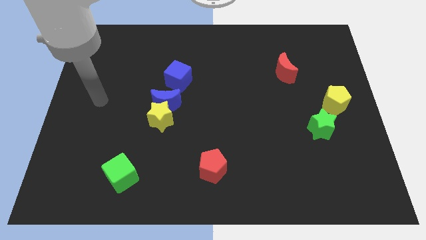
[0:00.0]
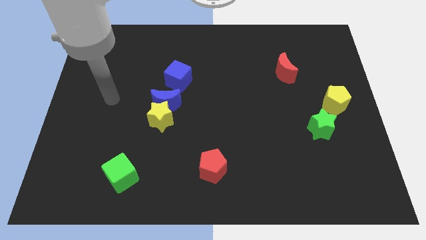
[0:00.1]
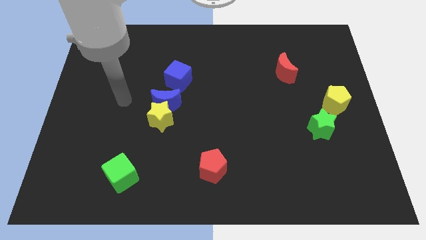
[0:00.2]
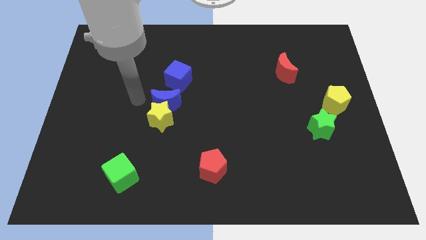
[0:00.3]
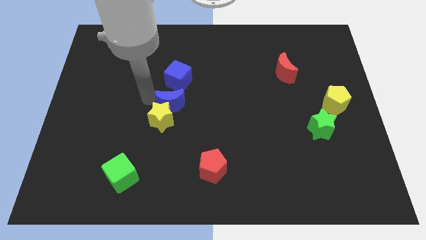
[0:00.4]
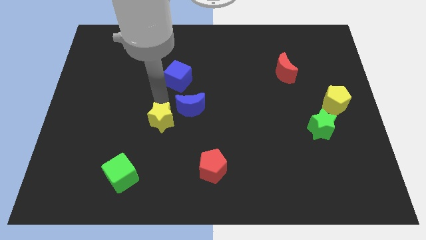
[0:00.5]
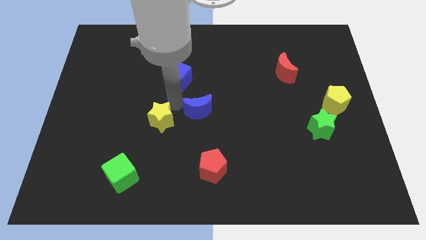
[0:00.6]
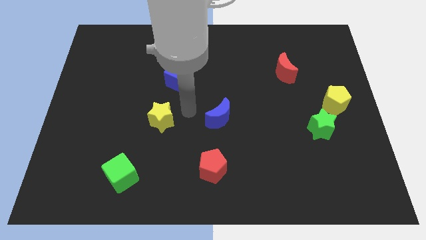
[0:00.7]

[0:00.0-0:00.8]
move the yellow star away from the blue moon

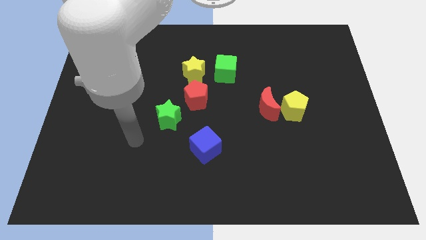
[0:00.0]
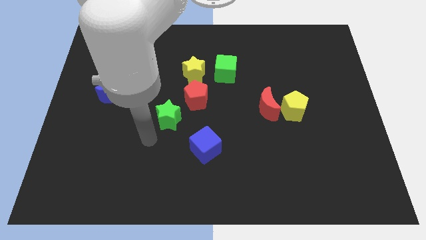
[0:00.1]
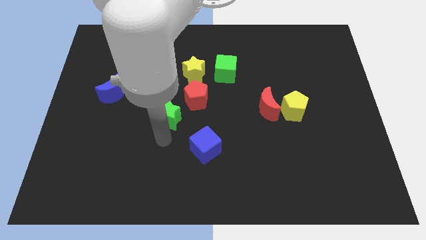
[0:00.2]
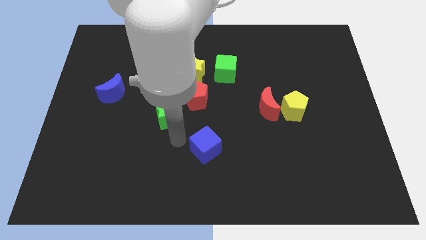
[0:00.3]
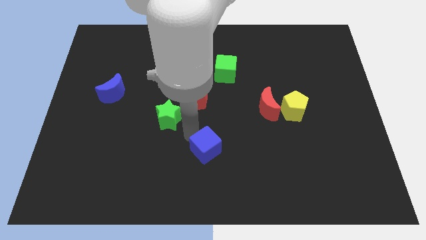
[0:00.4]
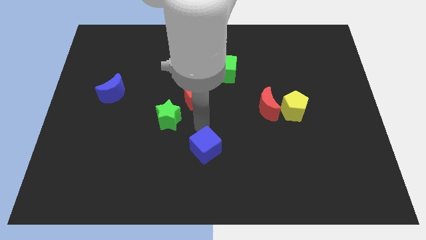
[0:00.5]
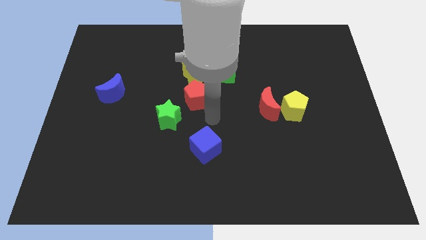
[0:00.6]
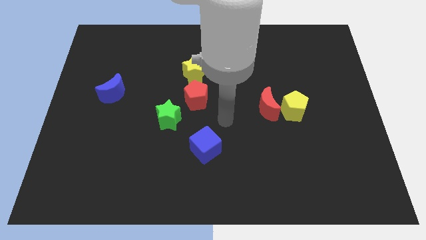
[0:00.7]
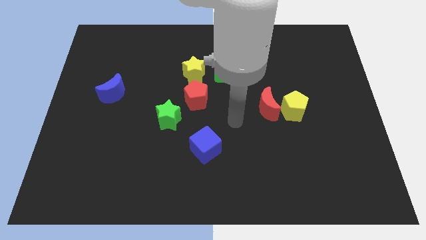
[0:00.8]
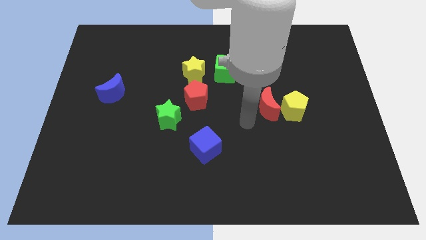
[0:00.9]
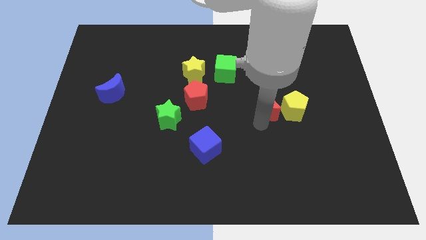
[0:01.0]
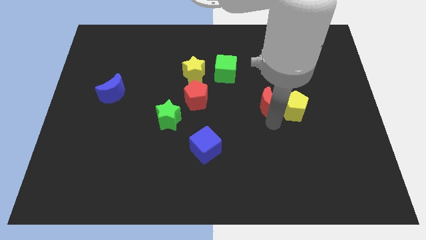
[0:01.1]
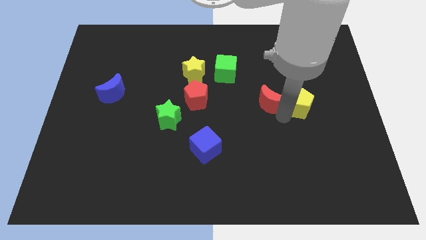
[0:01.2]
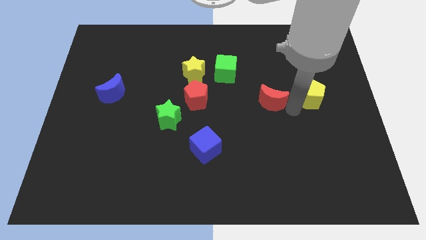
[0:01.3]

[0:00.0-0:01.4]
pull the red moon apart from the yellow pentagon

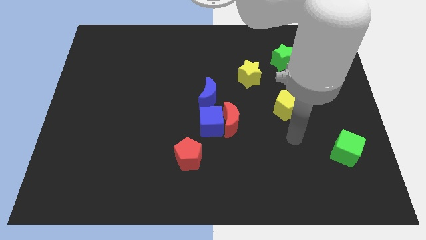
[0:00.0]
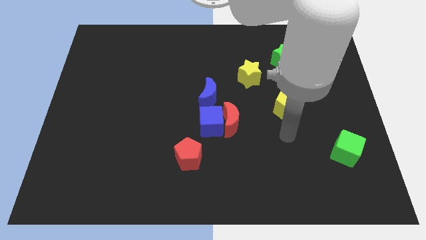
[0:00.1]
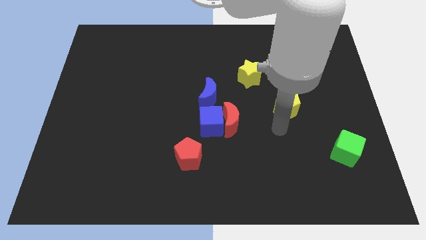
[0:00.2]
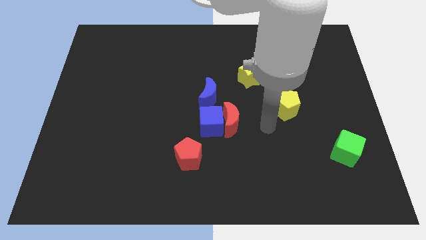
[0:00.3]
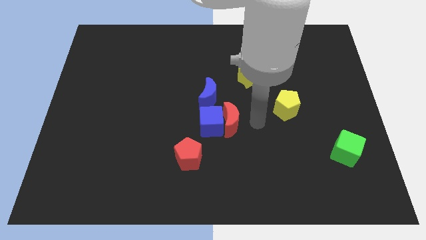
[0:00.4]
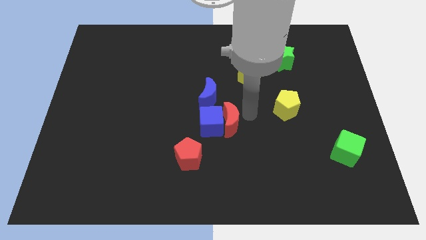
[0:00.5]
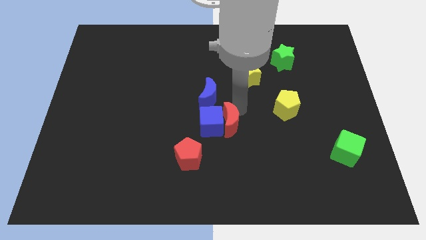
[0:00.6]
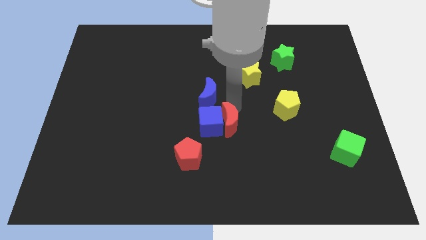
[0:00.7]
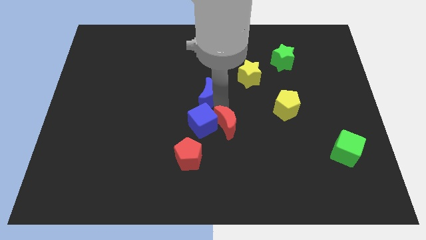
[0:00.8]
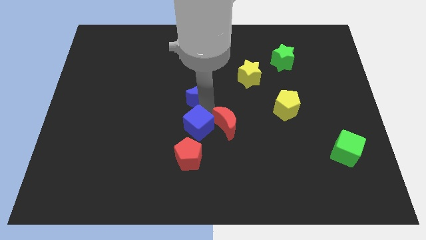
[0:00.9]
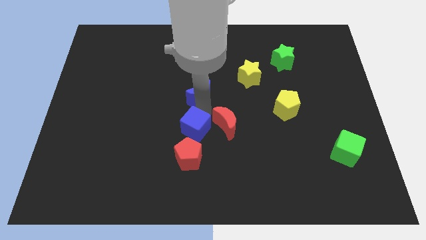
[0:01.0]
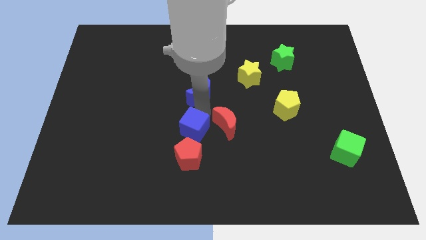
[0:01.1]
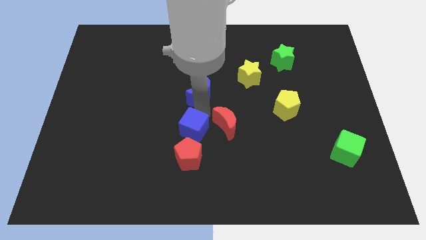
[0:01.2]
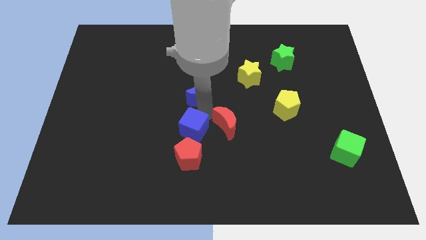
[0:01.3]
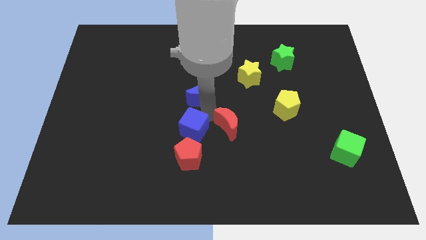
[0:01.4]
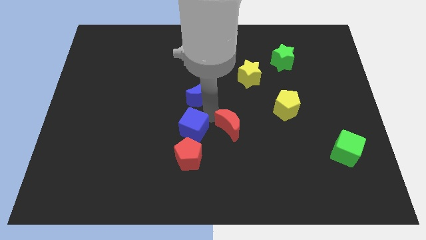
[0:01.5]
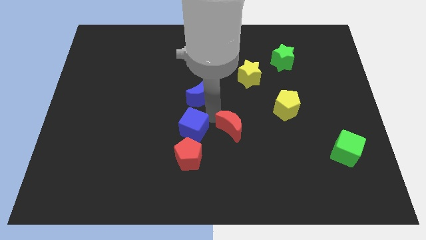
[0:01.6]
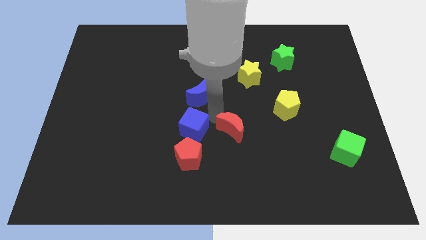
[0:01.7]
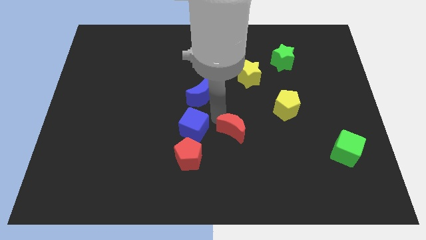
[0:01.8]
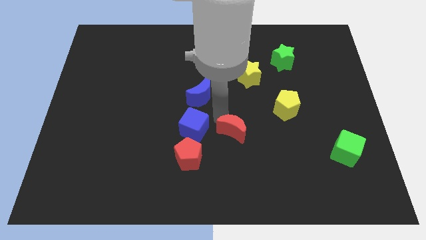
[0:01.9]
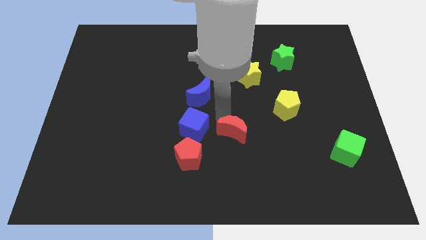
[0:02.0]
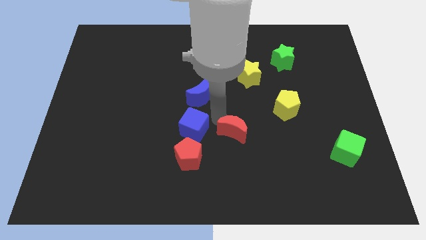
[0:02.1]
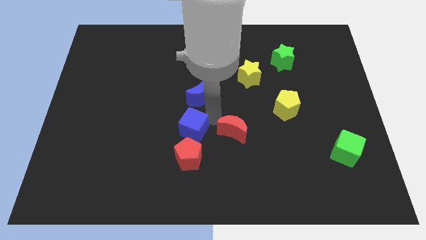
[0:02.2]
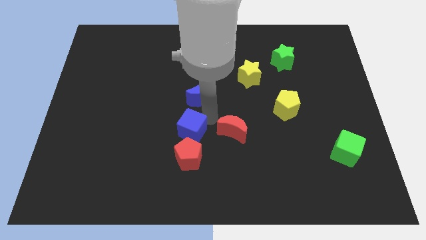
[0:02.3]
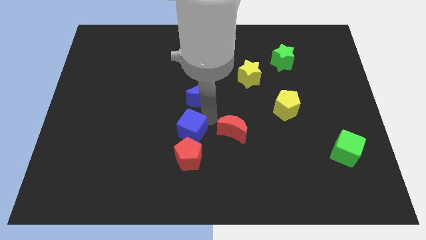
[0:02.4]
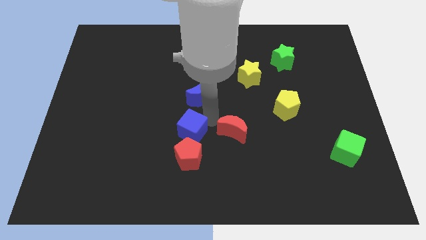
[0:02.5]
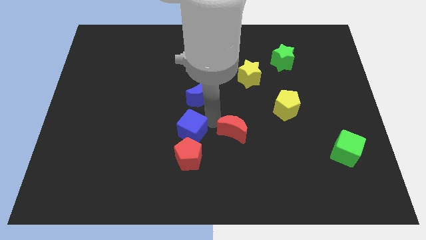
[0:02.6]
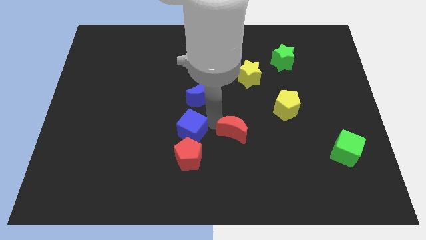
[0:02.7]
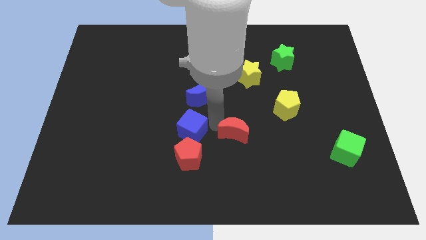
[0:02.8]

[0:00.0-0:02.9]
move the red moon away from the blue cube and blue moon

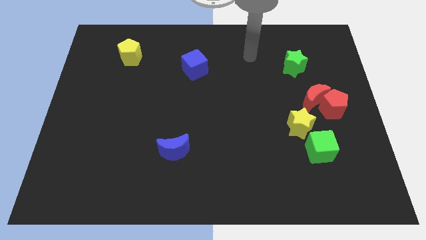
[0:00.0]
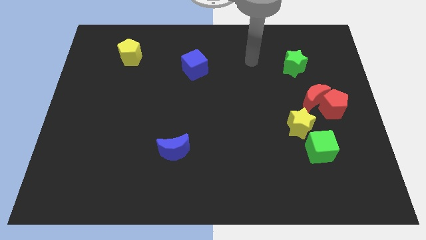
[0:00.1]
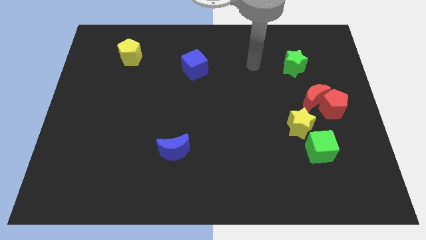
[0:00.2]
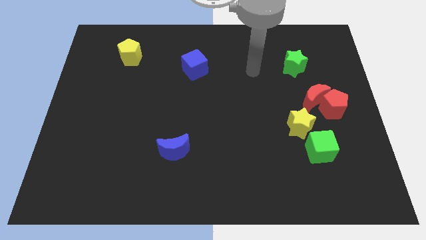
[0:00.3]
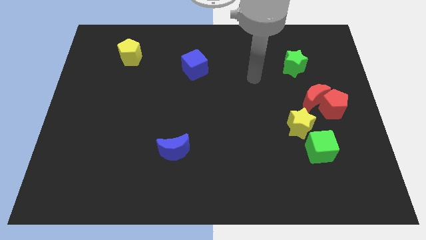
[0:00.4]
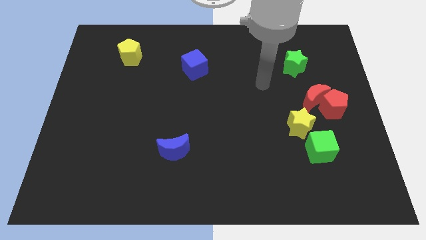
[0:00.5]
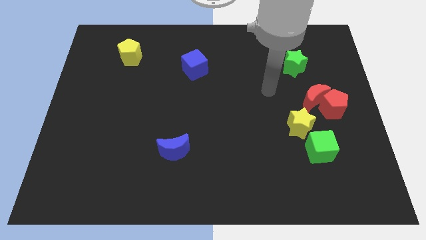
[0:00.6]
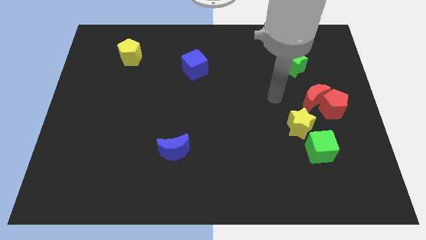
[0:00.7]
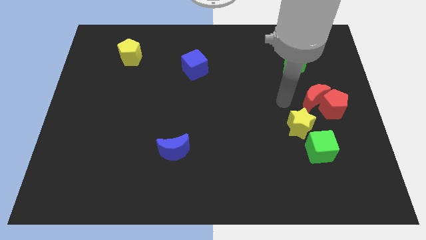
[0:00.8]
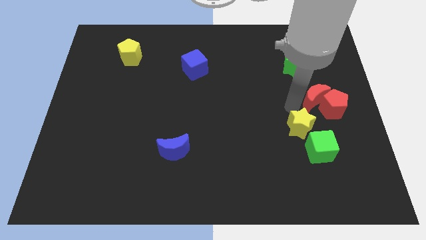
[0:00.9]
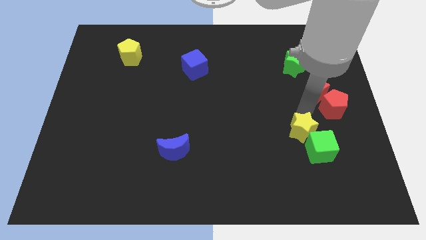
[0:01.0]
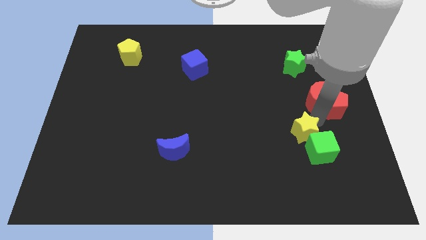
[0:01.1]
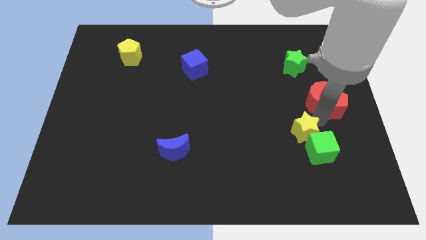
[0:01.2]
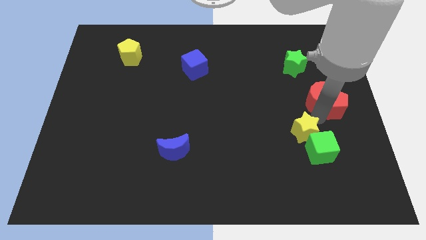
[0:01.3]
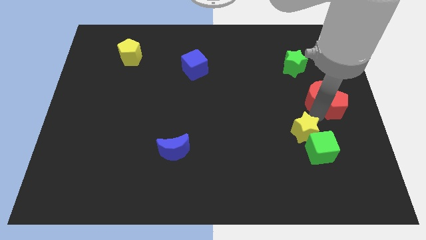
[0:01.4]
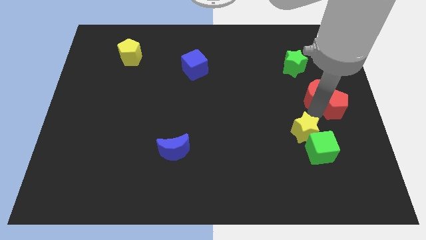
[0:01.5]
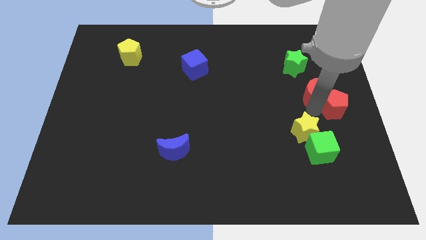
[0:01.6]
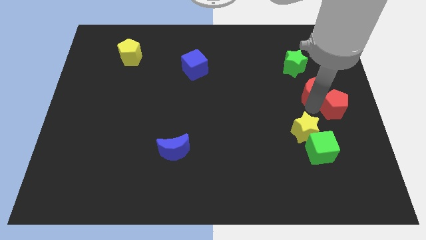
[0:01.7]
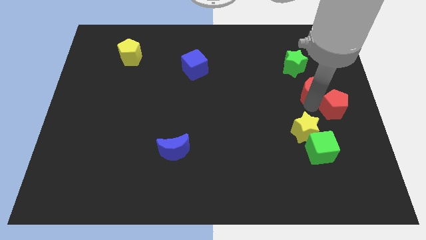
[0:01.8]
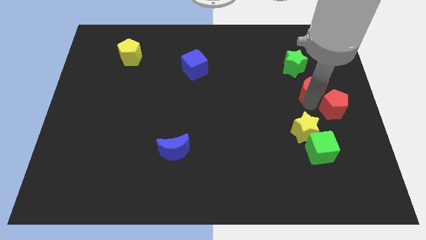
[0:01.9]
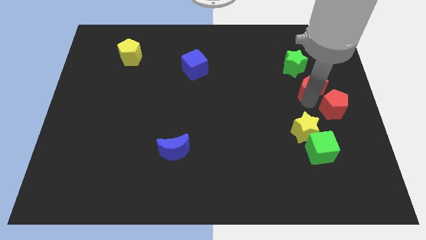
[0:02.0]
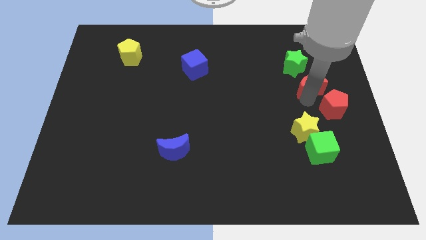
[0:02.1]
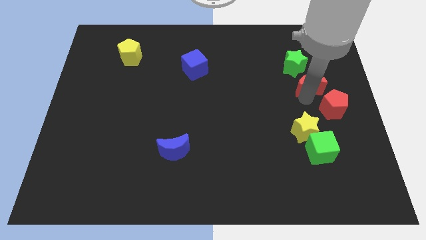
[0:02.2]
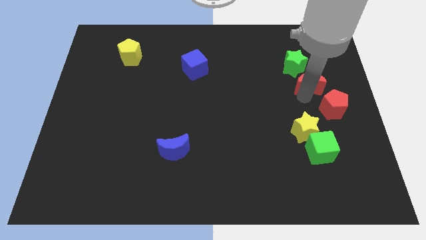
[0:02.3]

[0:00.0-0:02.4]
move the red moon away from the red pentagon and yellow star

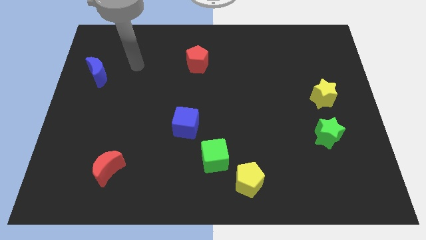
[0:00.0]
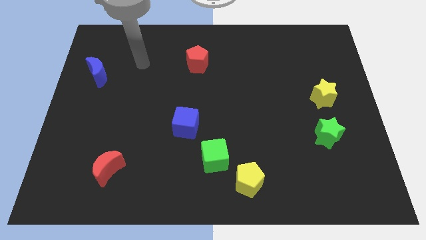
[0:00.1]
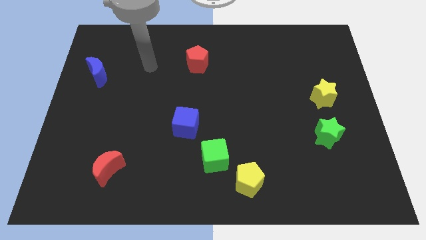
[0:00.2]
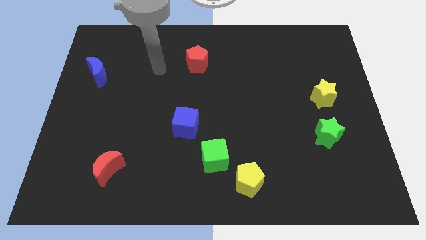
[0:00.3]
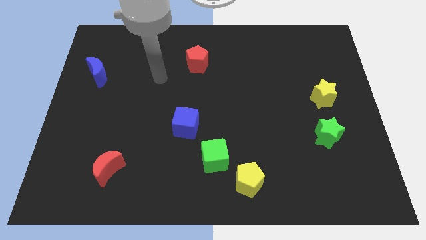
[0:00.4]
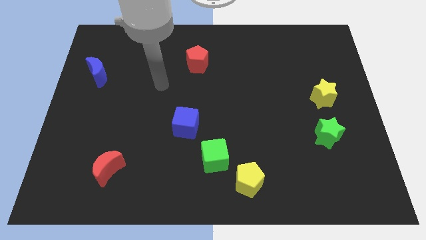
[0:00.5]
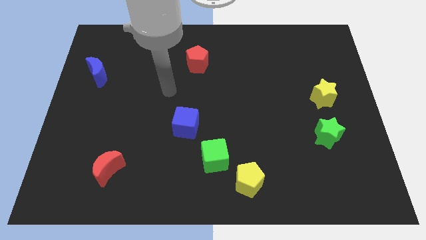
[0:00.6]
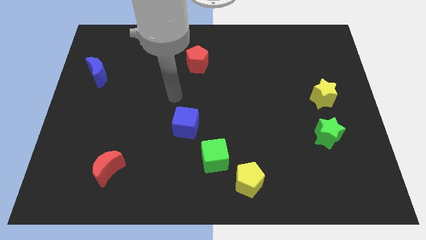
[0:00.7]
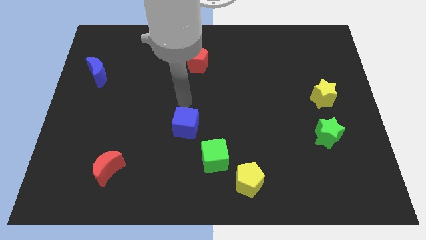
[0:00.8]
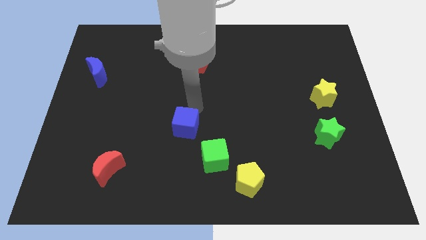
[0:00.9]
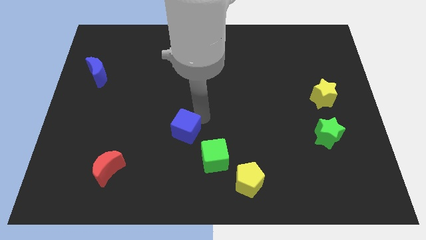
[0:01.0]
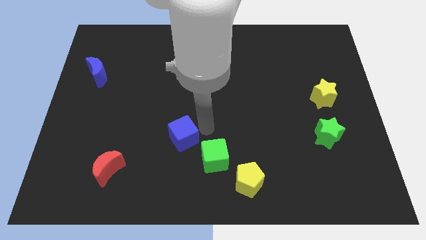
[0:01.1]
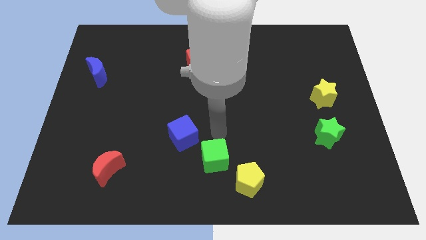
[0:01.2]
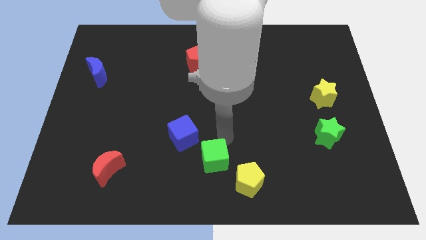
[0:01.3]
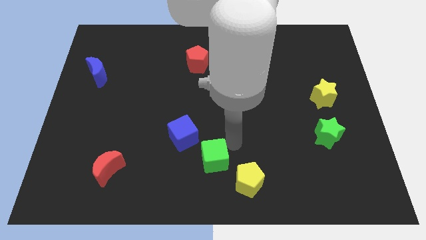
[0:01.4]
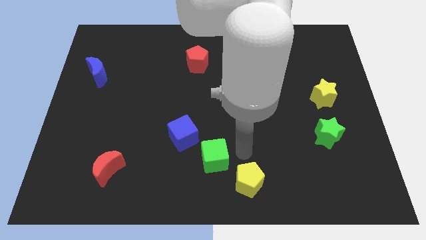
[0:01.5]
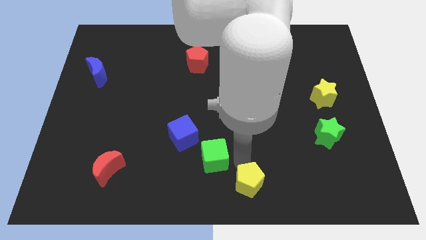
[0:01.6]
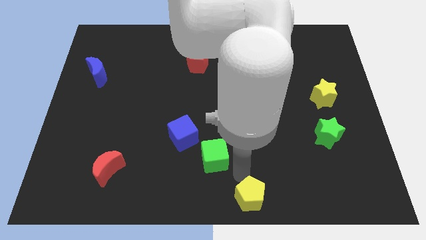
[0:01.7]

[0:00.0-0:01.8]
move the green cube away from the yellow pentagon
